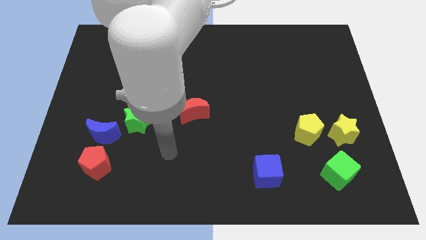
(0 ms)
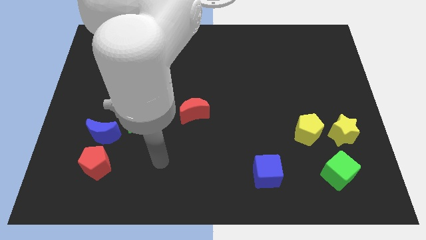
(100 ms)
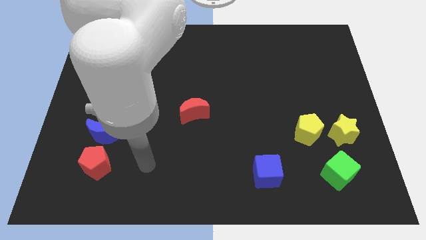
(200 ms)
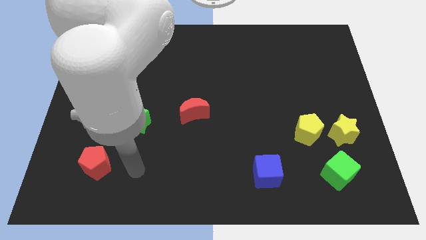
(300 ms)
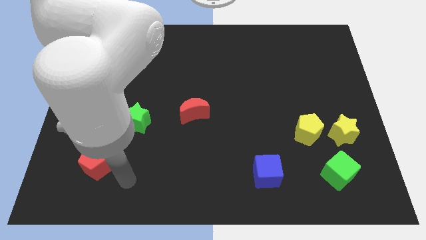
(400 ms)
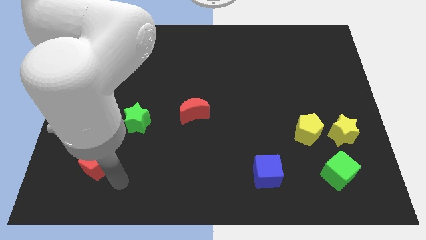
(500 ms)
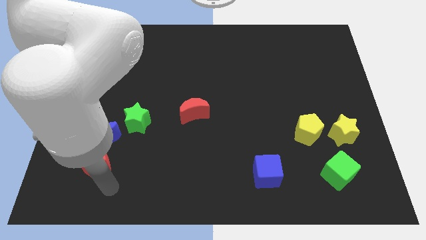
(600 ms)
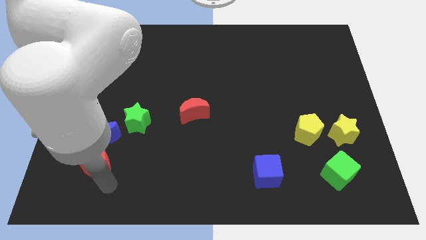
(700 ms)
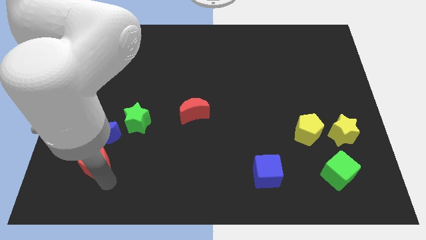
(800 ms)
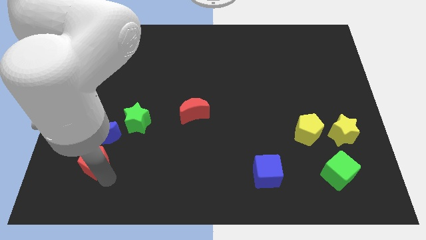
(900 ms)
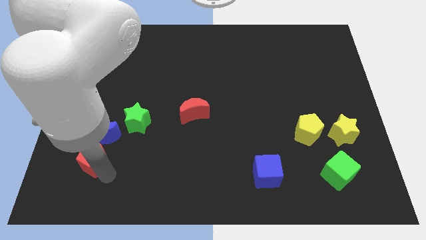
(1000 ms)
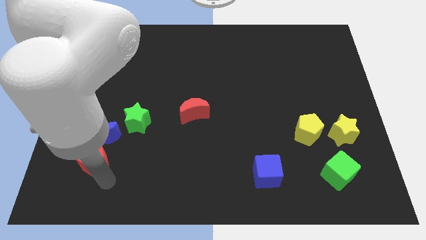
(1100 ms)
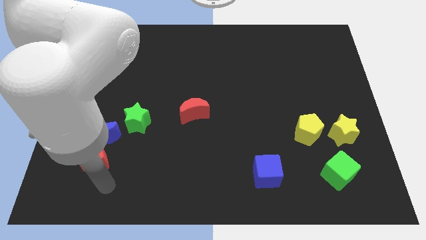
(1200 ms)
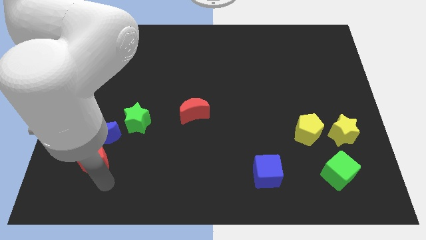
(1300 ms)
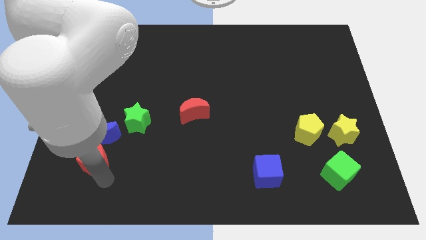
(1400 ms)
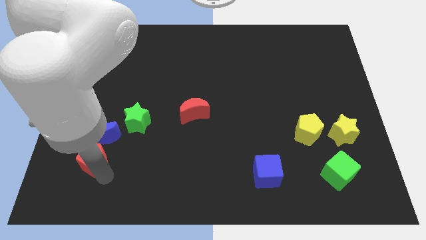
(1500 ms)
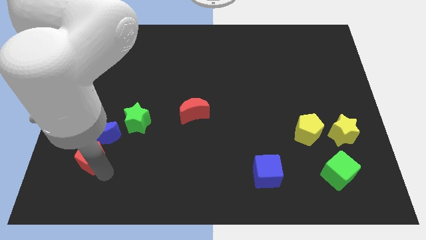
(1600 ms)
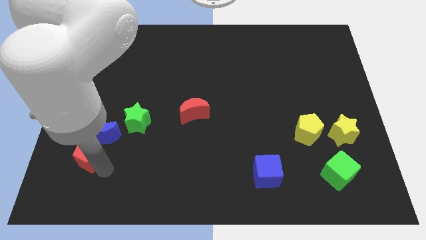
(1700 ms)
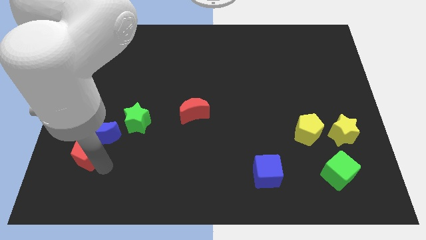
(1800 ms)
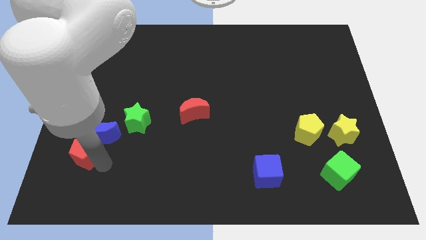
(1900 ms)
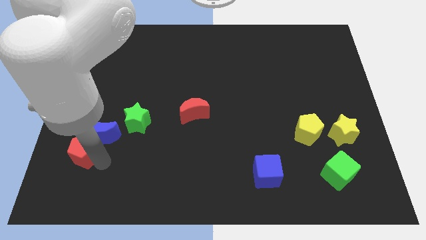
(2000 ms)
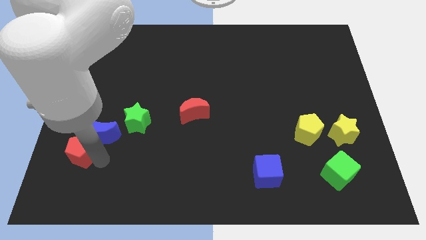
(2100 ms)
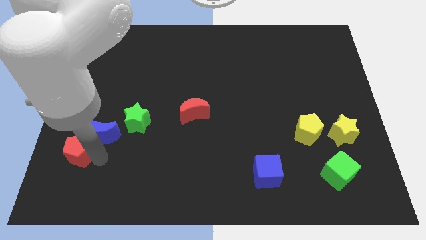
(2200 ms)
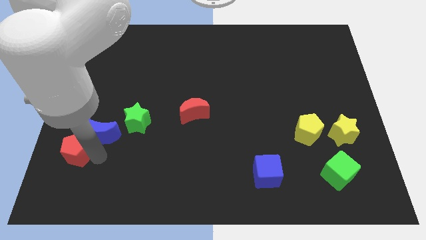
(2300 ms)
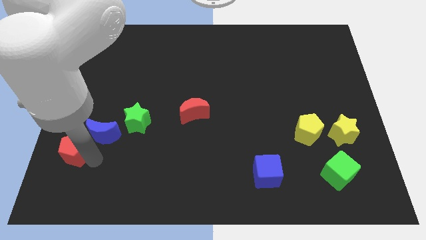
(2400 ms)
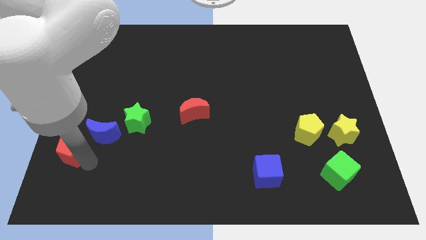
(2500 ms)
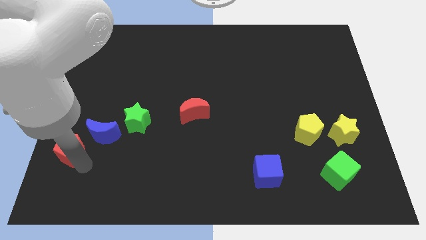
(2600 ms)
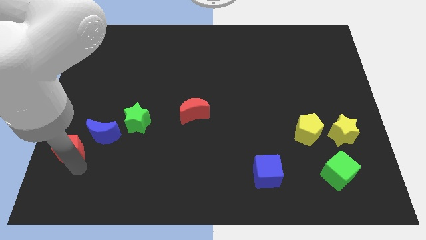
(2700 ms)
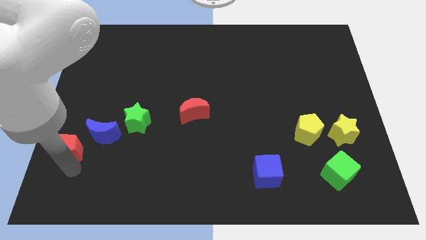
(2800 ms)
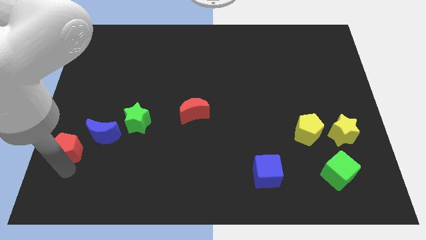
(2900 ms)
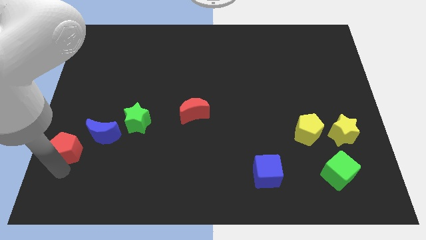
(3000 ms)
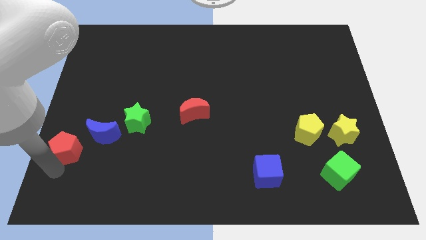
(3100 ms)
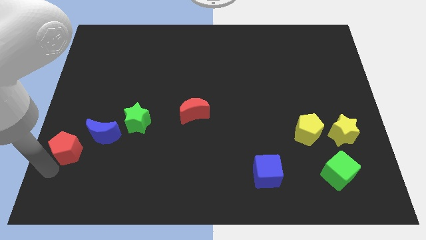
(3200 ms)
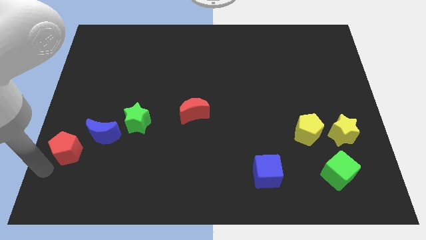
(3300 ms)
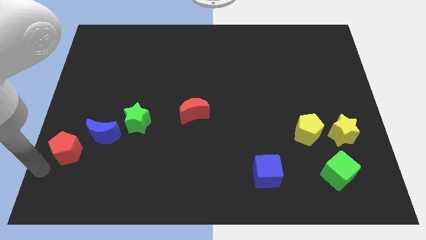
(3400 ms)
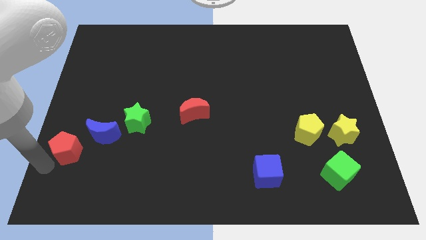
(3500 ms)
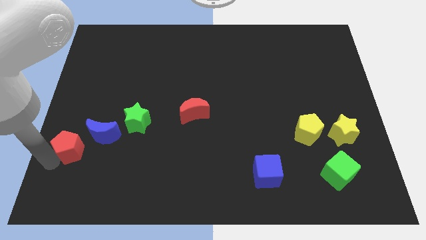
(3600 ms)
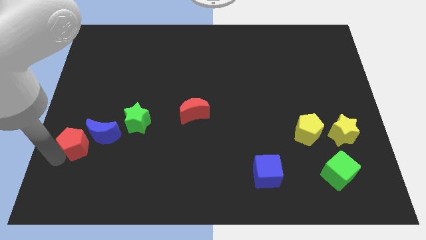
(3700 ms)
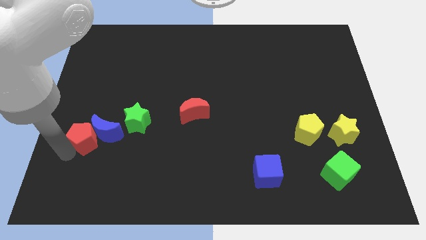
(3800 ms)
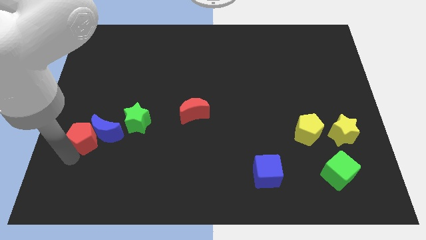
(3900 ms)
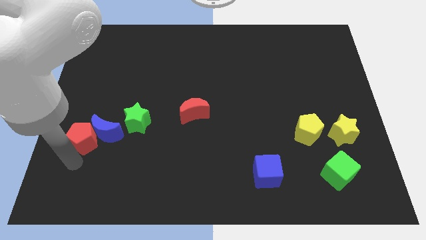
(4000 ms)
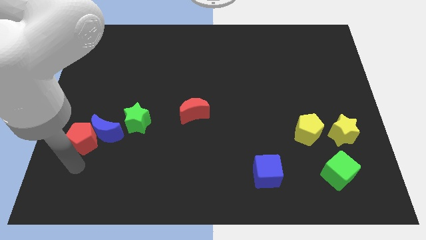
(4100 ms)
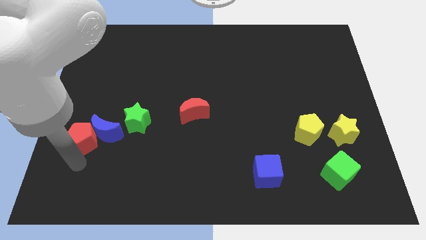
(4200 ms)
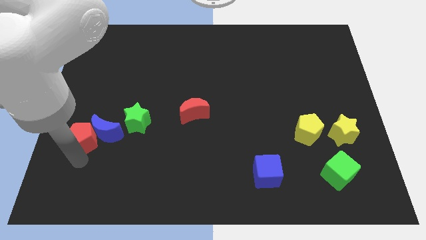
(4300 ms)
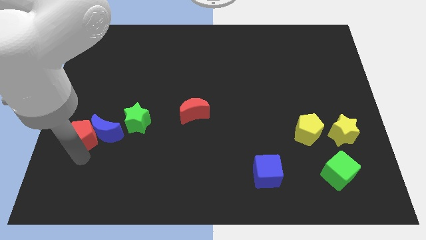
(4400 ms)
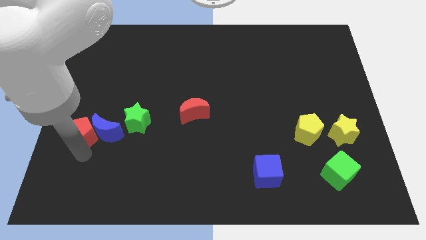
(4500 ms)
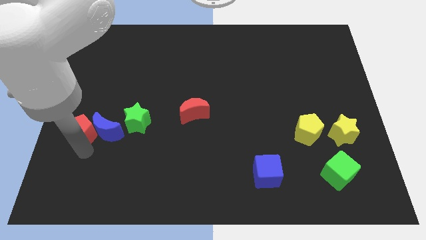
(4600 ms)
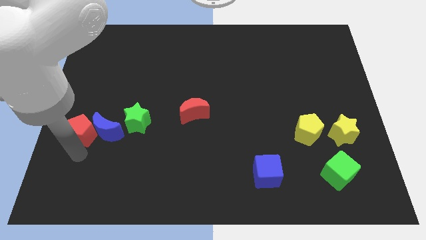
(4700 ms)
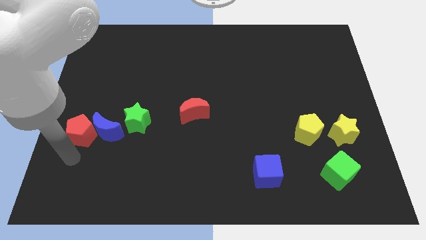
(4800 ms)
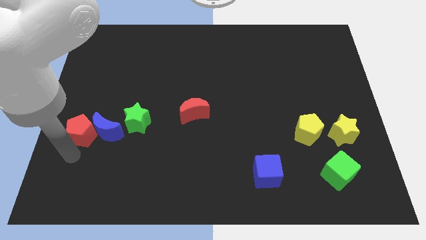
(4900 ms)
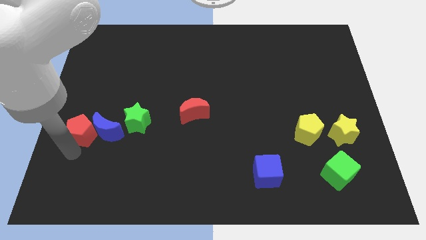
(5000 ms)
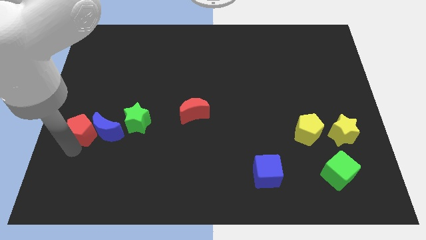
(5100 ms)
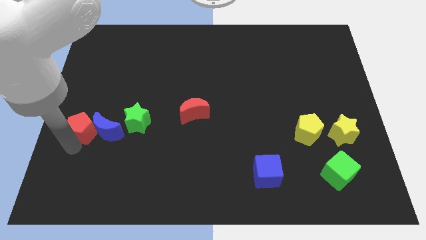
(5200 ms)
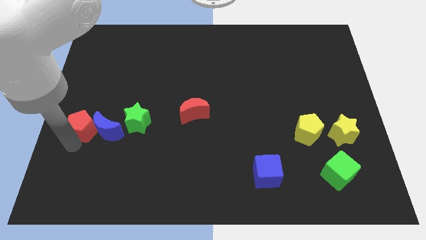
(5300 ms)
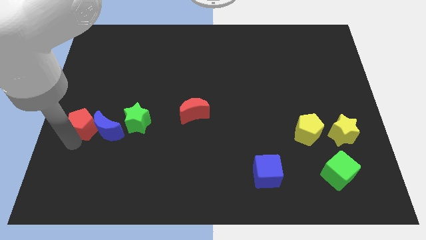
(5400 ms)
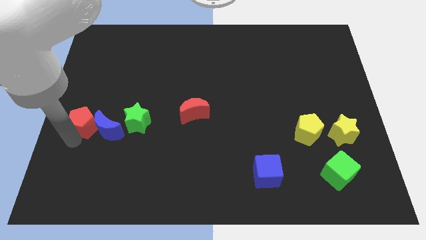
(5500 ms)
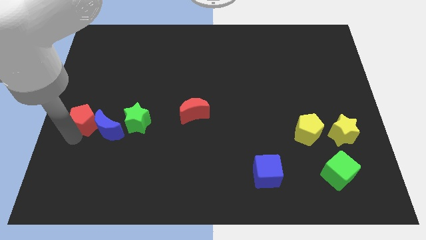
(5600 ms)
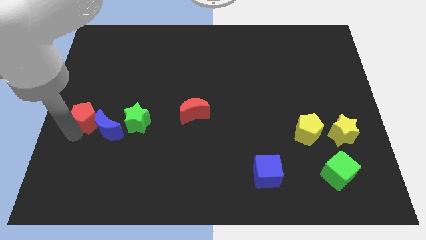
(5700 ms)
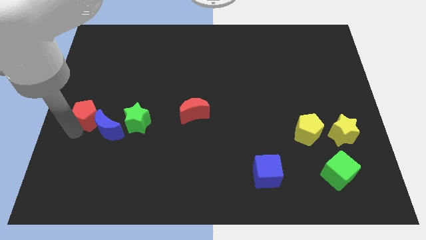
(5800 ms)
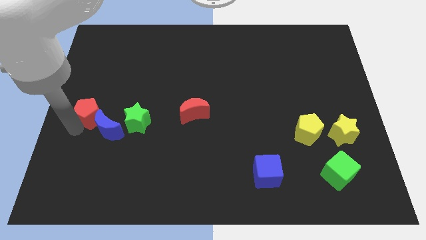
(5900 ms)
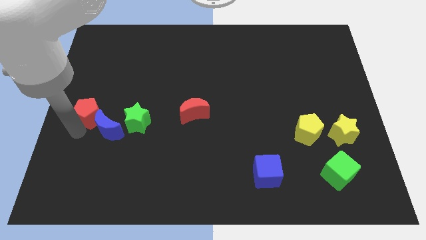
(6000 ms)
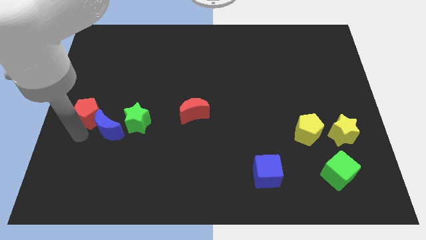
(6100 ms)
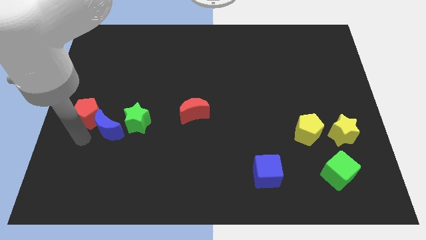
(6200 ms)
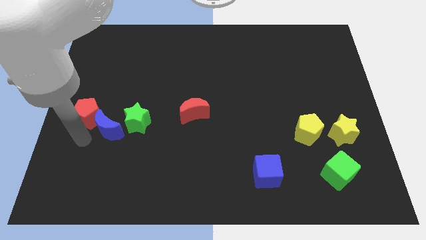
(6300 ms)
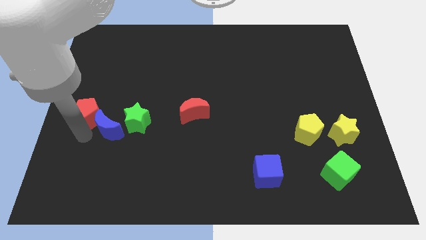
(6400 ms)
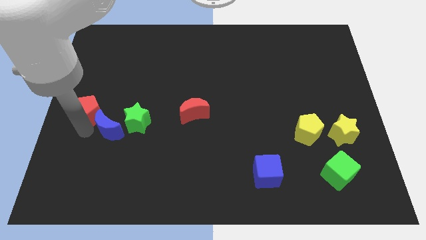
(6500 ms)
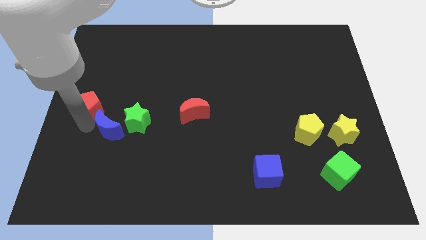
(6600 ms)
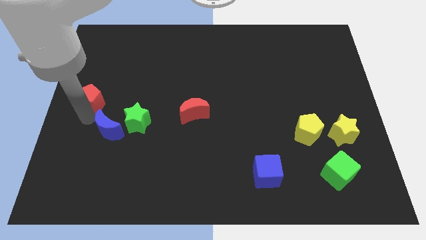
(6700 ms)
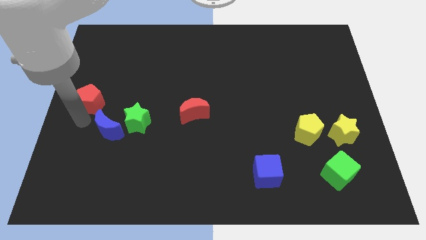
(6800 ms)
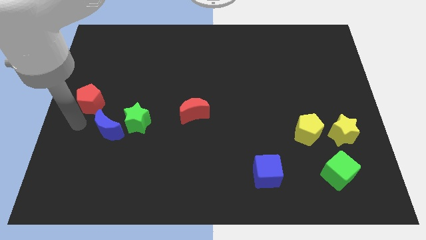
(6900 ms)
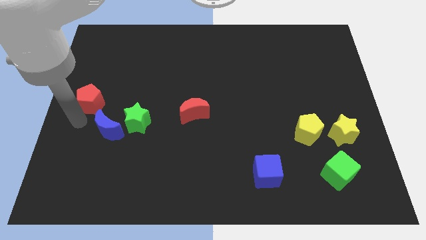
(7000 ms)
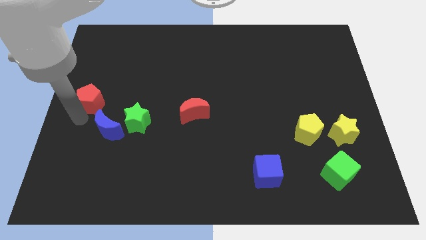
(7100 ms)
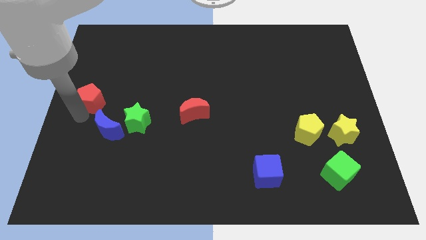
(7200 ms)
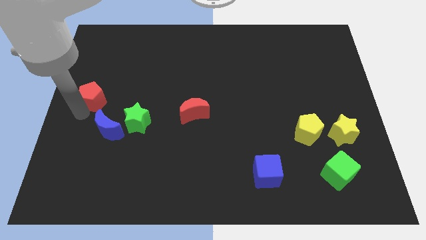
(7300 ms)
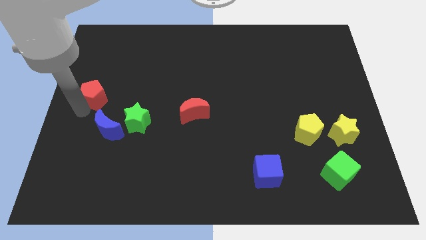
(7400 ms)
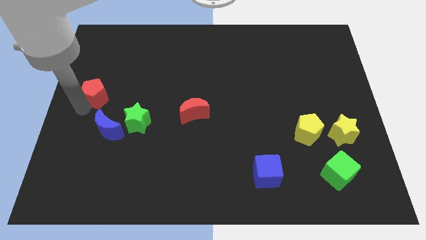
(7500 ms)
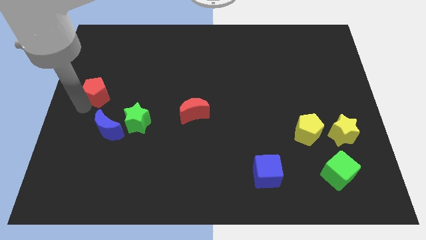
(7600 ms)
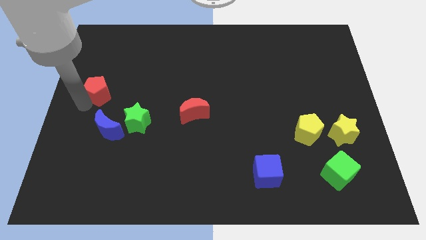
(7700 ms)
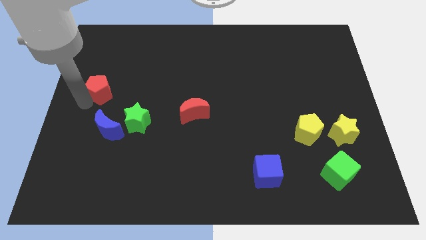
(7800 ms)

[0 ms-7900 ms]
slide the red pentagon upwards
